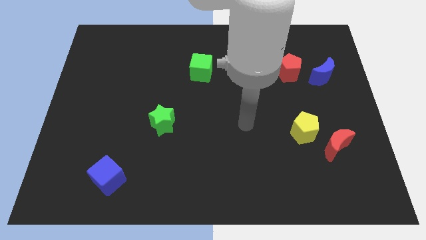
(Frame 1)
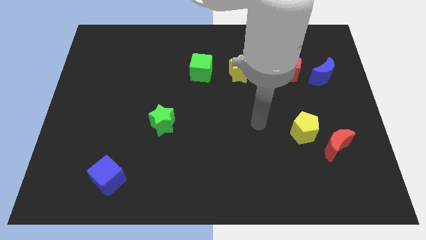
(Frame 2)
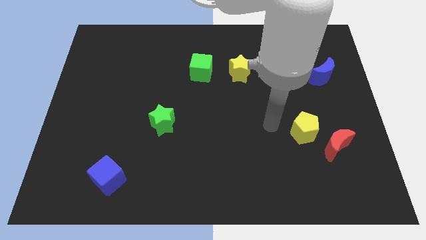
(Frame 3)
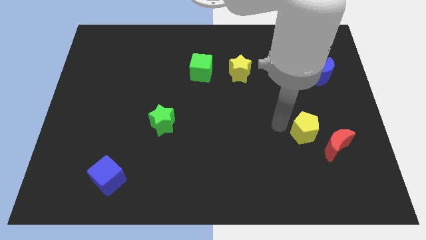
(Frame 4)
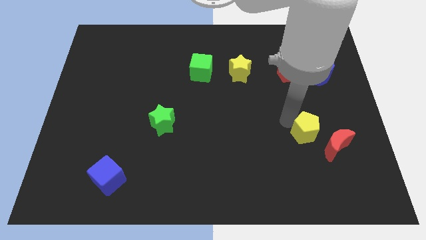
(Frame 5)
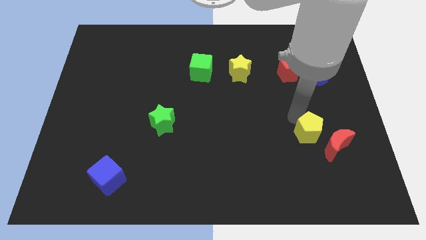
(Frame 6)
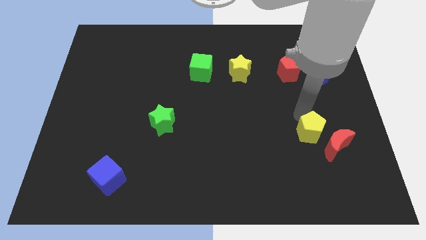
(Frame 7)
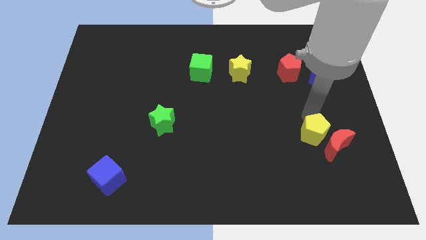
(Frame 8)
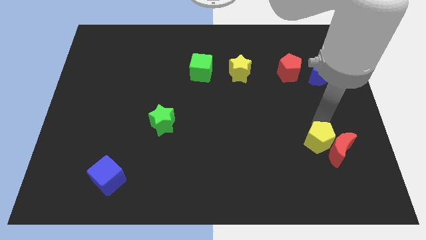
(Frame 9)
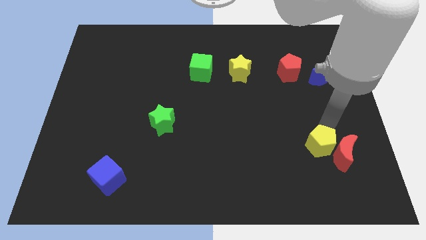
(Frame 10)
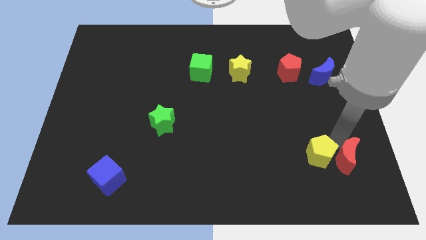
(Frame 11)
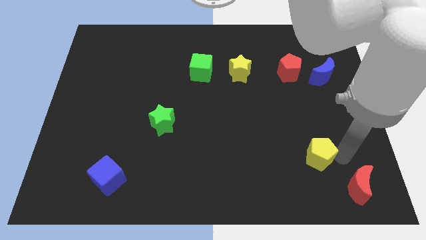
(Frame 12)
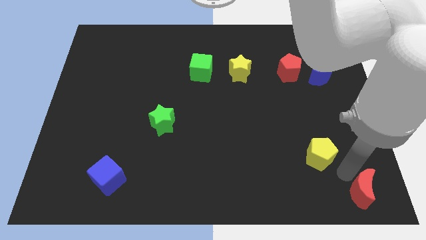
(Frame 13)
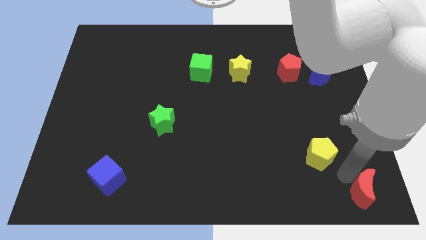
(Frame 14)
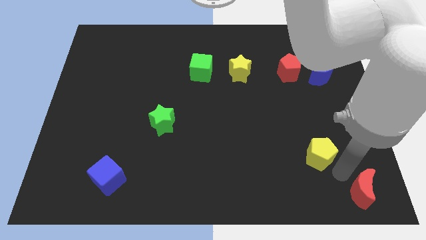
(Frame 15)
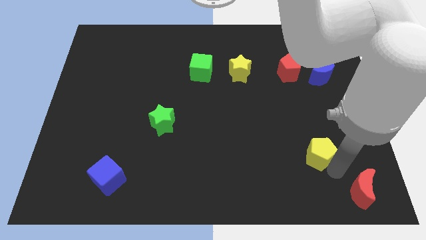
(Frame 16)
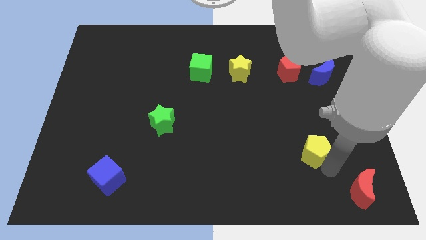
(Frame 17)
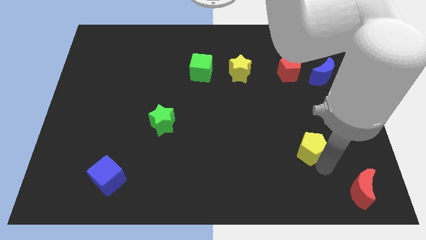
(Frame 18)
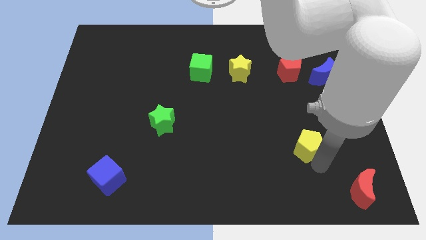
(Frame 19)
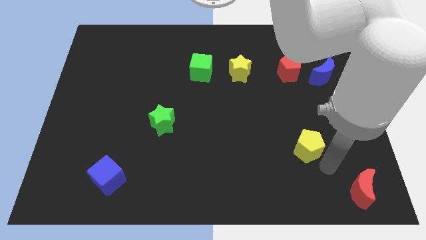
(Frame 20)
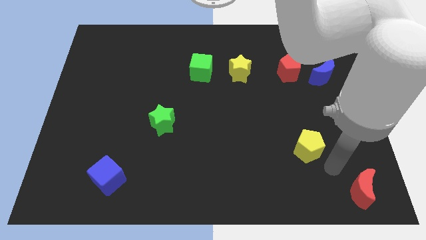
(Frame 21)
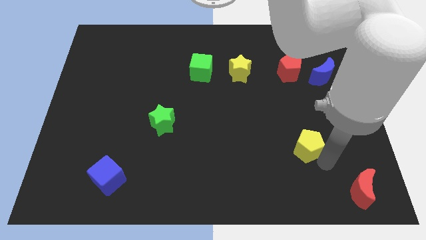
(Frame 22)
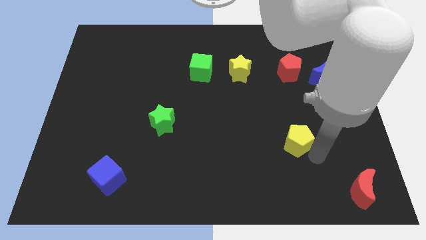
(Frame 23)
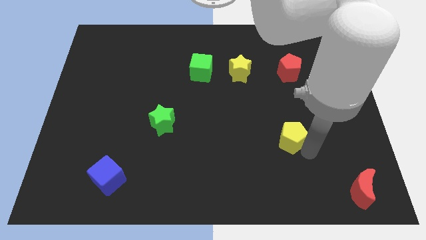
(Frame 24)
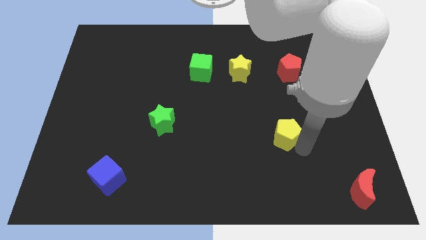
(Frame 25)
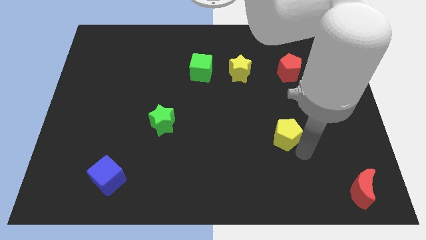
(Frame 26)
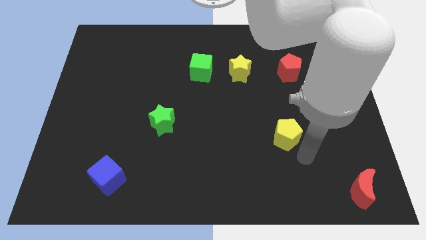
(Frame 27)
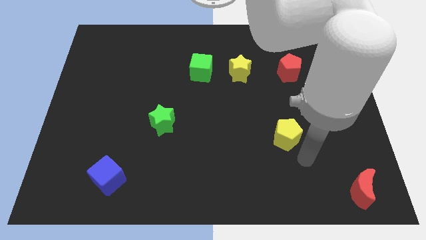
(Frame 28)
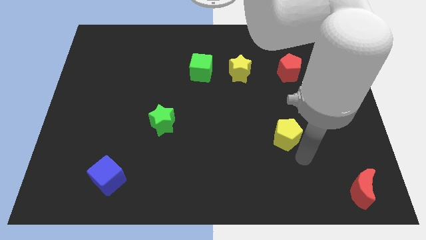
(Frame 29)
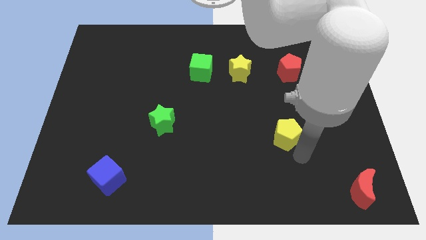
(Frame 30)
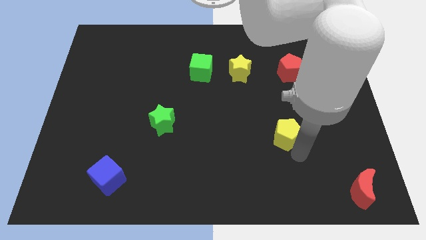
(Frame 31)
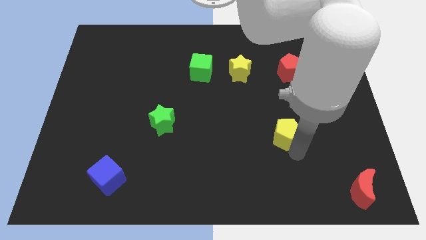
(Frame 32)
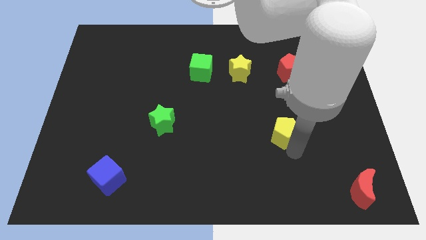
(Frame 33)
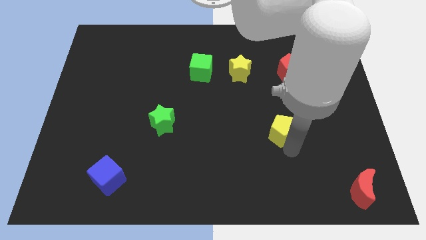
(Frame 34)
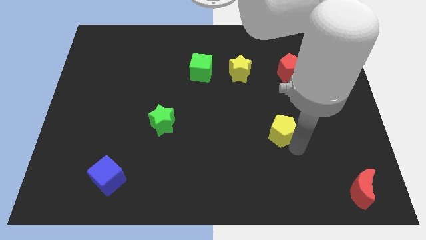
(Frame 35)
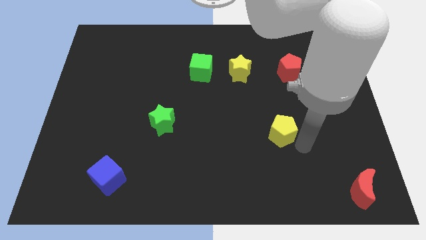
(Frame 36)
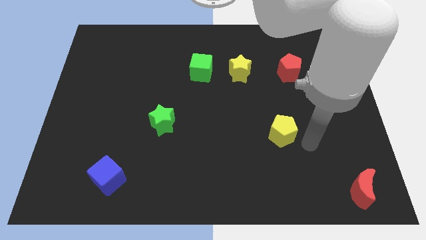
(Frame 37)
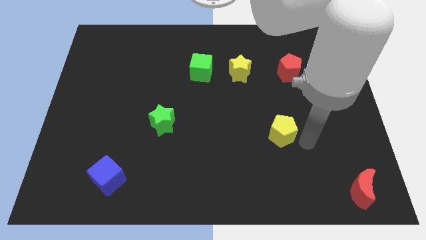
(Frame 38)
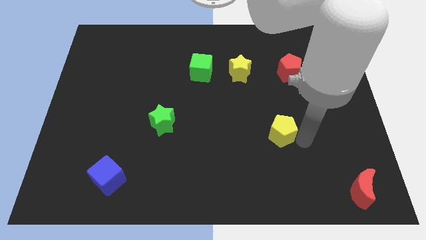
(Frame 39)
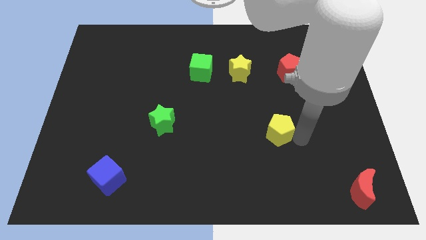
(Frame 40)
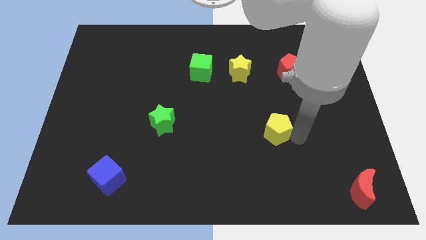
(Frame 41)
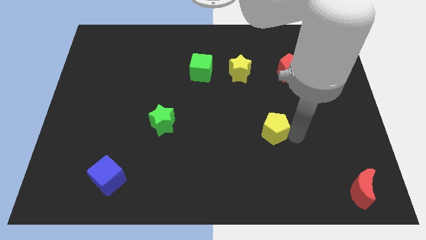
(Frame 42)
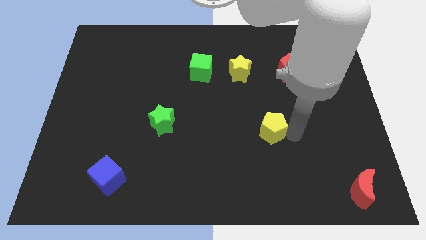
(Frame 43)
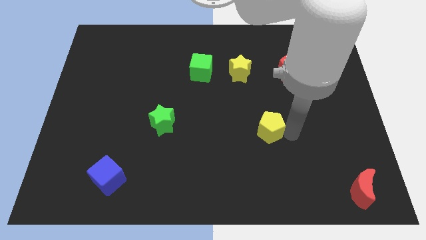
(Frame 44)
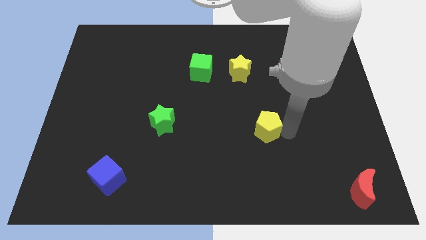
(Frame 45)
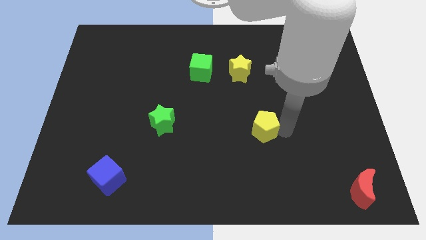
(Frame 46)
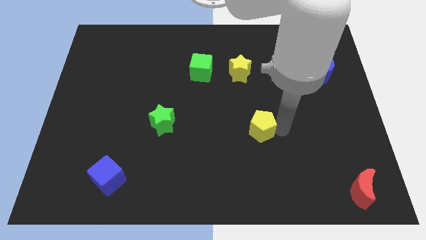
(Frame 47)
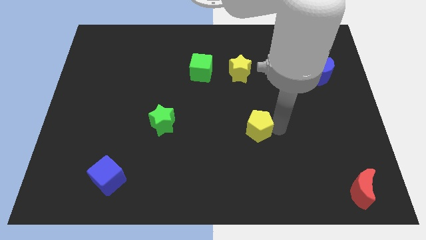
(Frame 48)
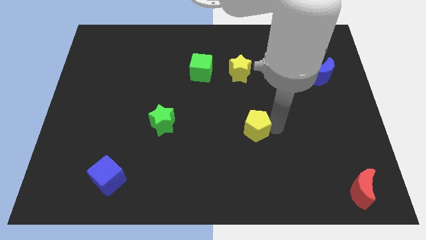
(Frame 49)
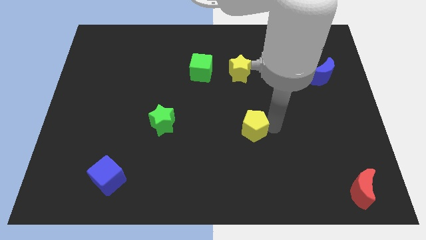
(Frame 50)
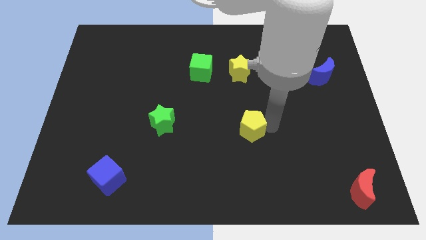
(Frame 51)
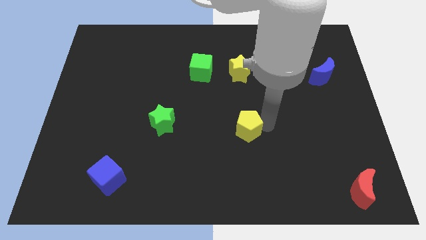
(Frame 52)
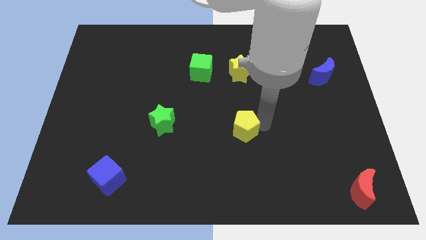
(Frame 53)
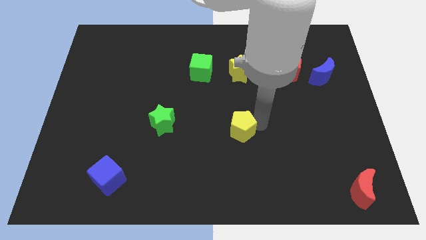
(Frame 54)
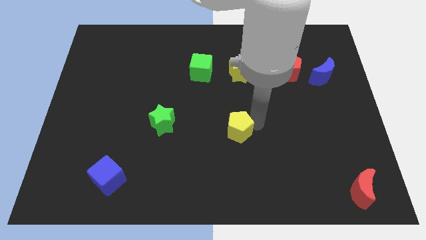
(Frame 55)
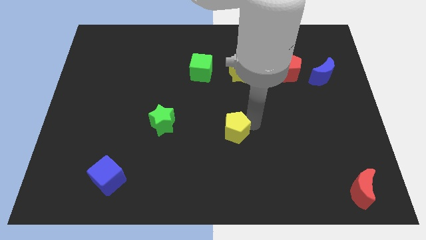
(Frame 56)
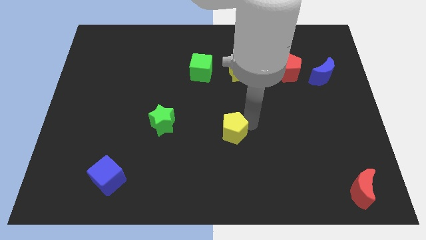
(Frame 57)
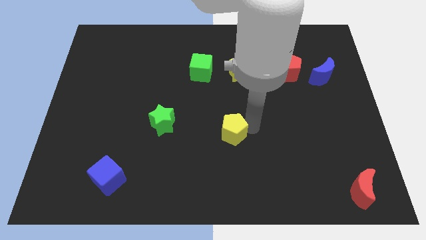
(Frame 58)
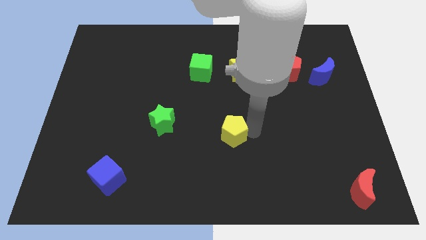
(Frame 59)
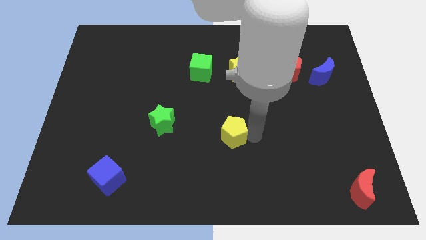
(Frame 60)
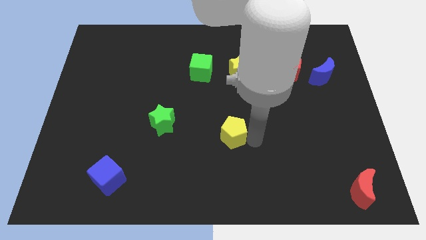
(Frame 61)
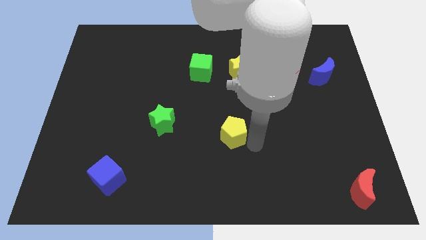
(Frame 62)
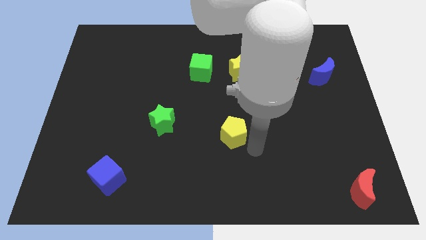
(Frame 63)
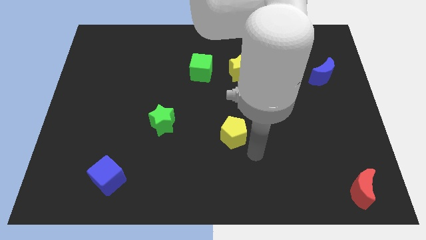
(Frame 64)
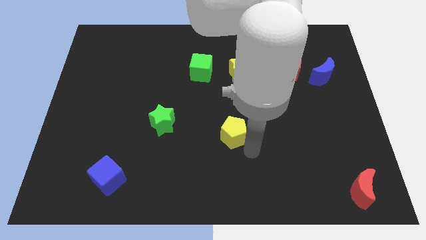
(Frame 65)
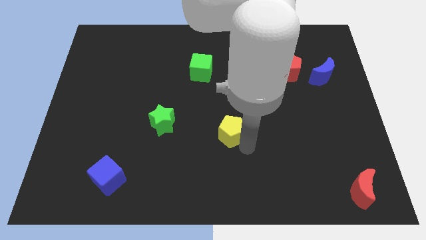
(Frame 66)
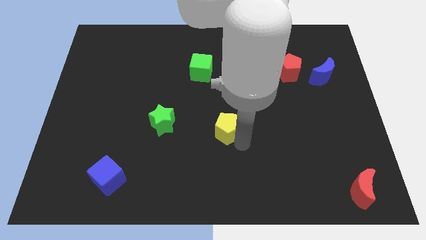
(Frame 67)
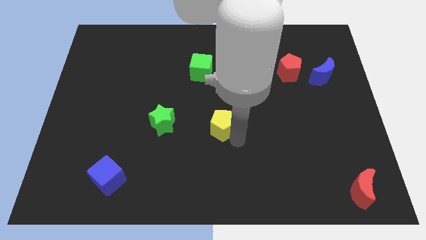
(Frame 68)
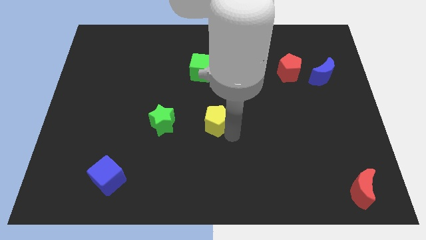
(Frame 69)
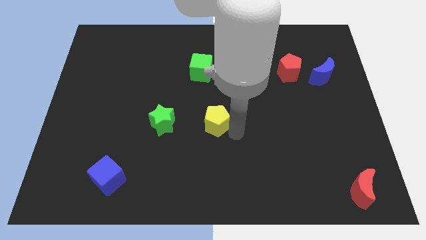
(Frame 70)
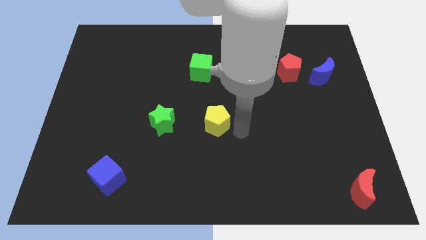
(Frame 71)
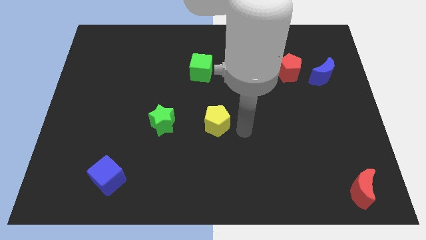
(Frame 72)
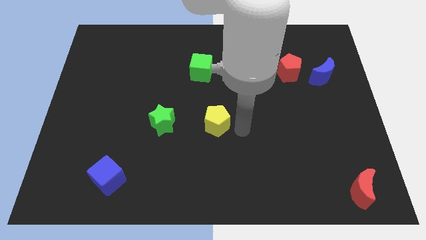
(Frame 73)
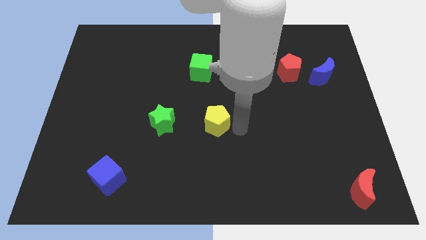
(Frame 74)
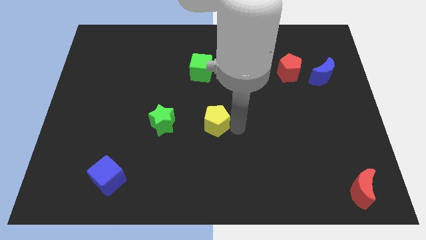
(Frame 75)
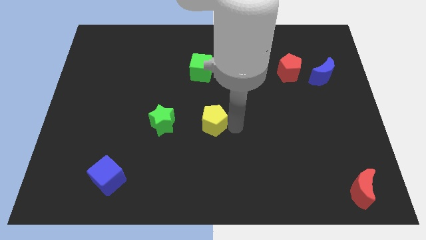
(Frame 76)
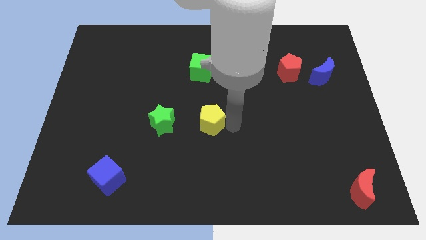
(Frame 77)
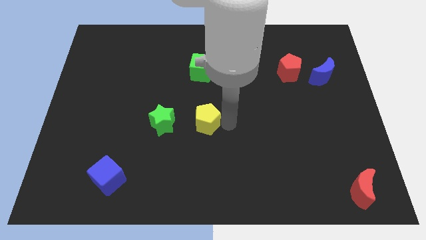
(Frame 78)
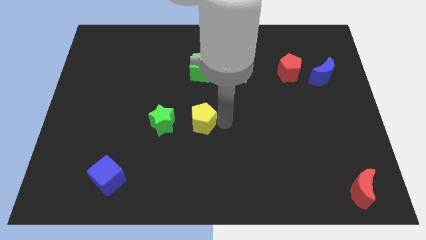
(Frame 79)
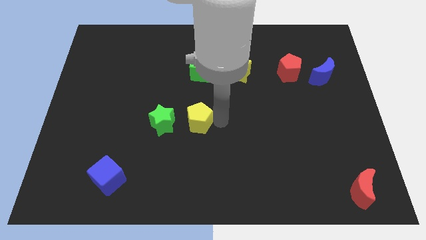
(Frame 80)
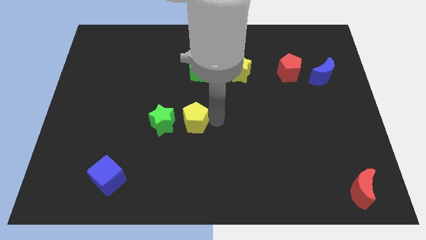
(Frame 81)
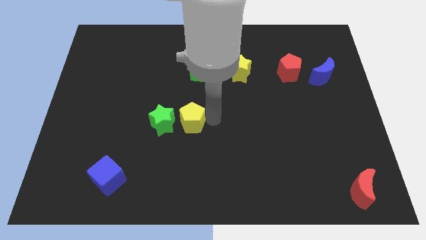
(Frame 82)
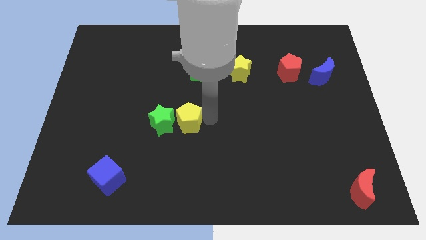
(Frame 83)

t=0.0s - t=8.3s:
push the yellow pentagon to the green star
